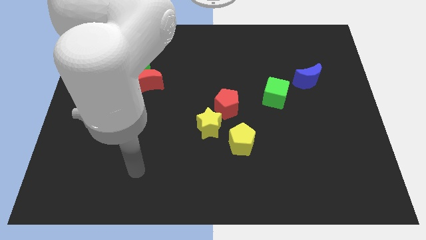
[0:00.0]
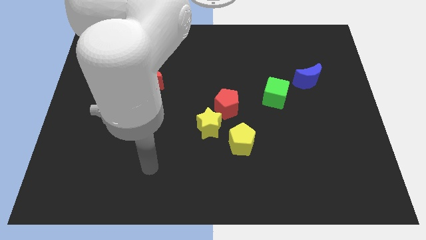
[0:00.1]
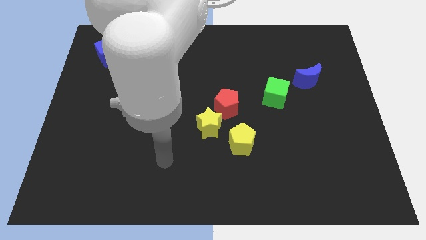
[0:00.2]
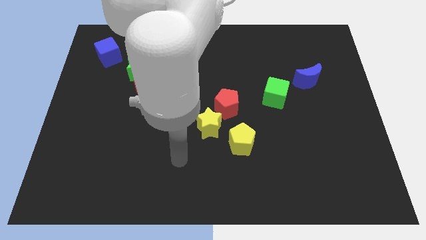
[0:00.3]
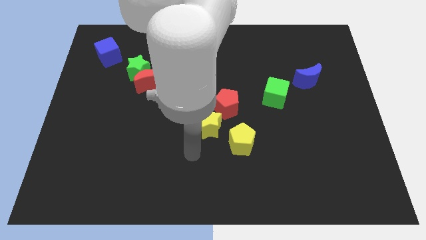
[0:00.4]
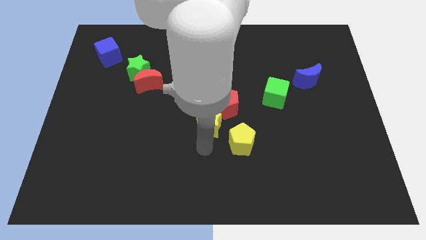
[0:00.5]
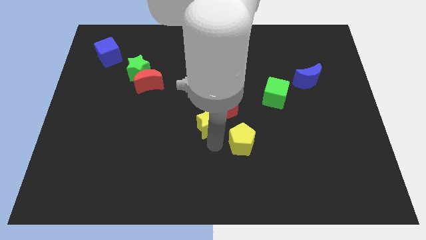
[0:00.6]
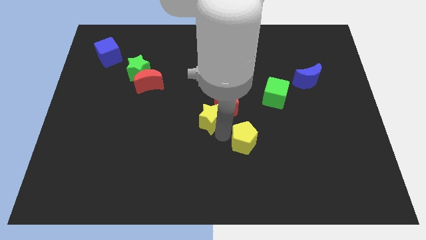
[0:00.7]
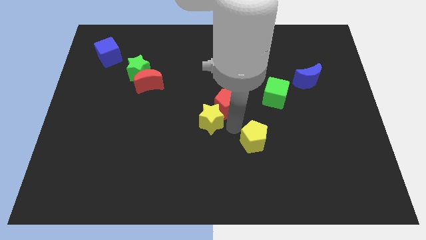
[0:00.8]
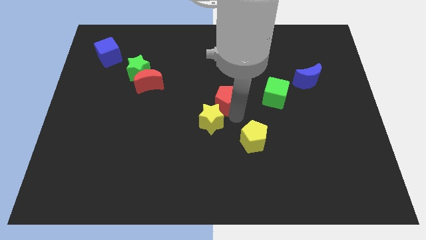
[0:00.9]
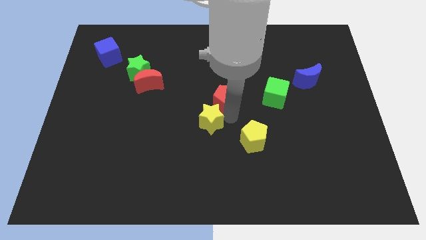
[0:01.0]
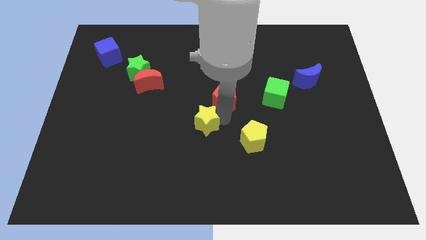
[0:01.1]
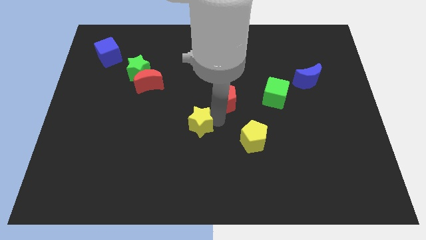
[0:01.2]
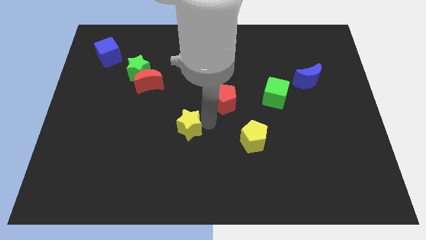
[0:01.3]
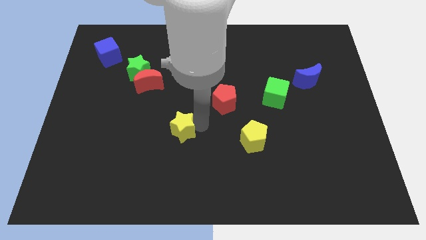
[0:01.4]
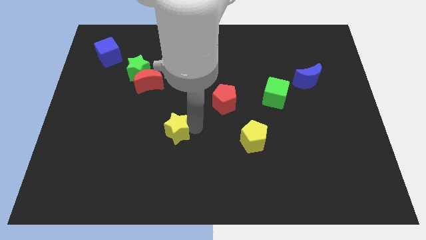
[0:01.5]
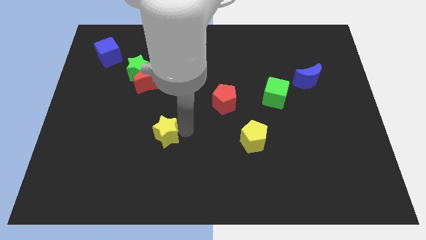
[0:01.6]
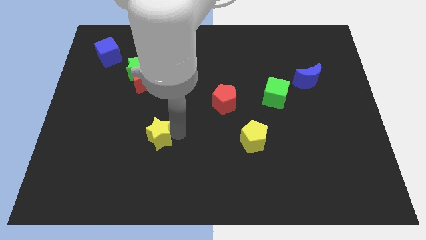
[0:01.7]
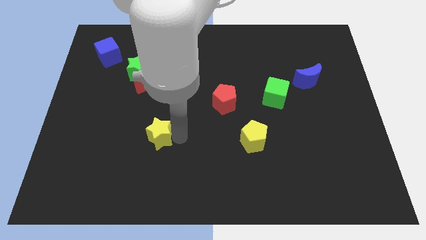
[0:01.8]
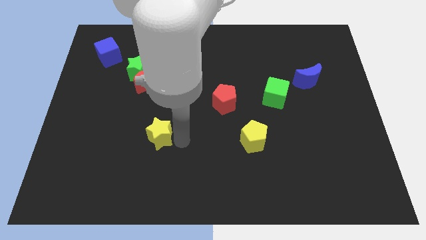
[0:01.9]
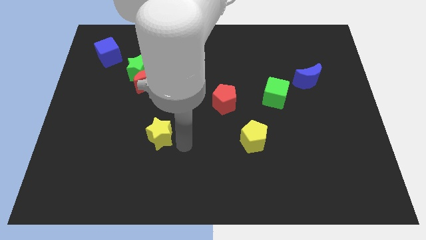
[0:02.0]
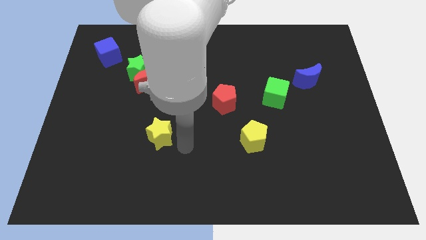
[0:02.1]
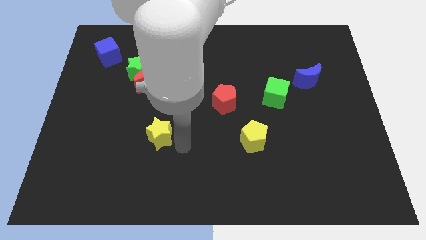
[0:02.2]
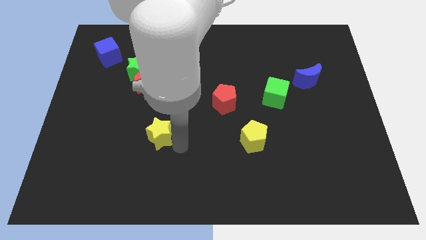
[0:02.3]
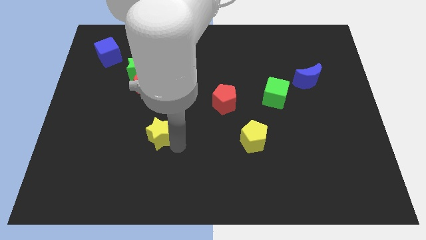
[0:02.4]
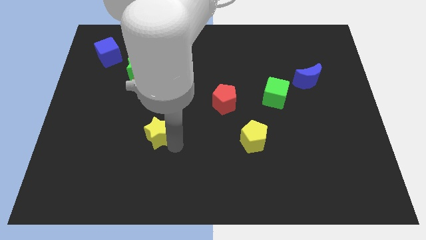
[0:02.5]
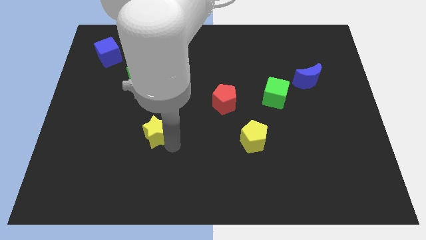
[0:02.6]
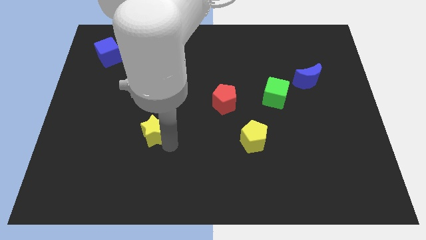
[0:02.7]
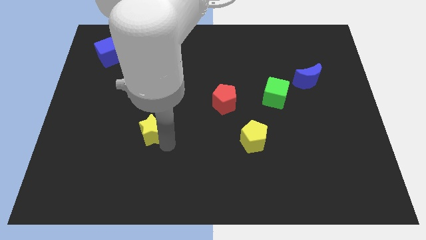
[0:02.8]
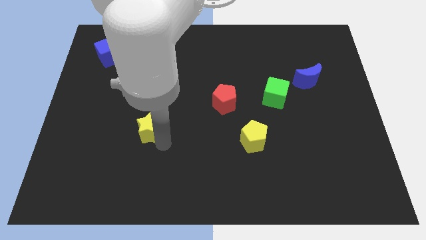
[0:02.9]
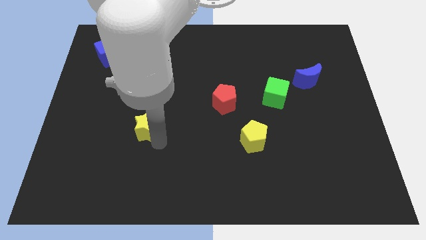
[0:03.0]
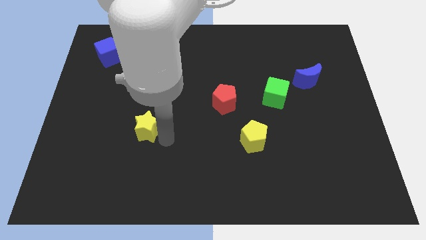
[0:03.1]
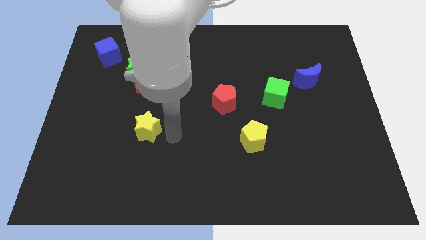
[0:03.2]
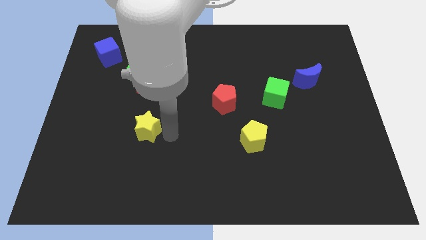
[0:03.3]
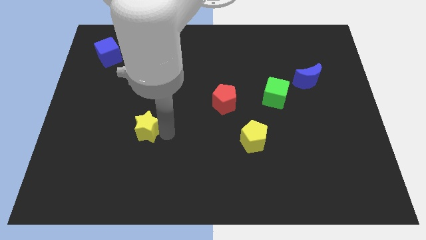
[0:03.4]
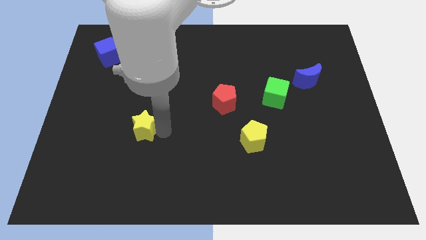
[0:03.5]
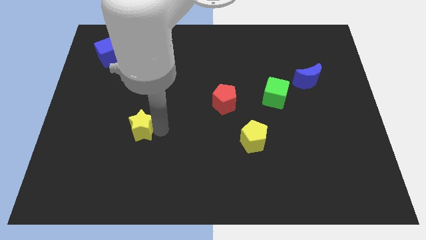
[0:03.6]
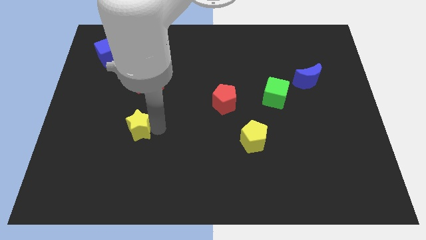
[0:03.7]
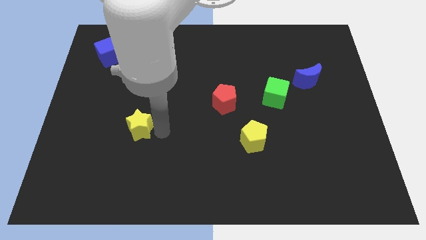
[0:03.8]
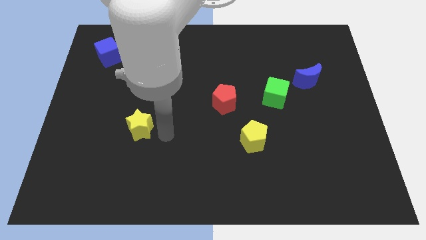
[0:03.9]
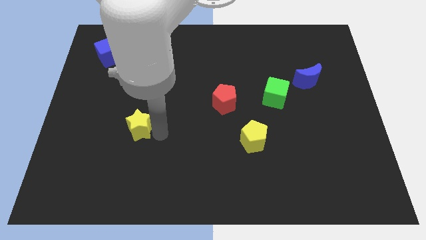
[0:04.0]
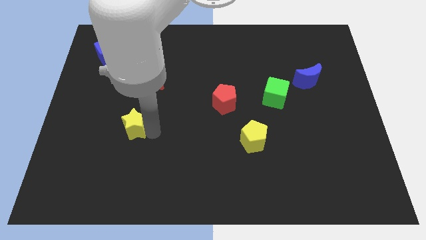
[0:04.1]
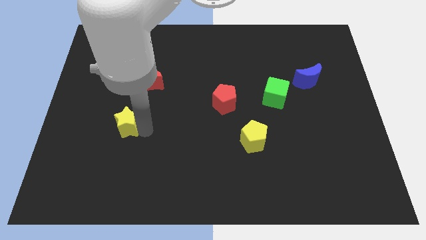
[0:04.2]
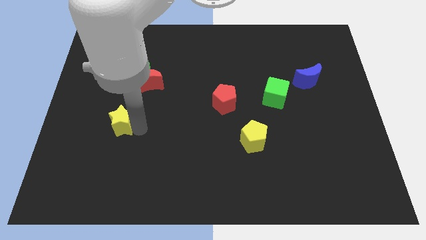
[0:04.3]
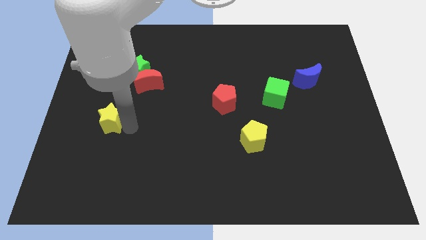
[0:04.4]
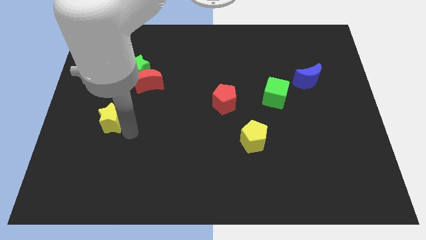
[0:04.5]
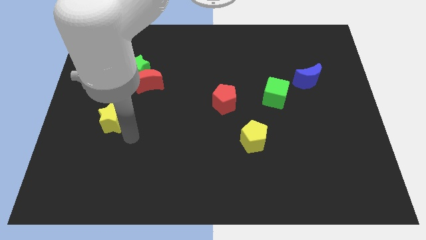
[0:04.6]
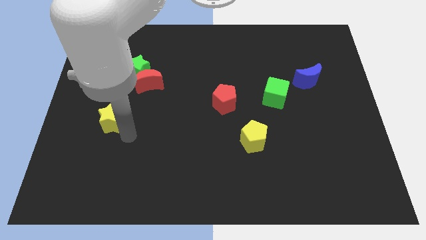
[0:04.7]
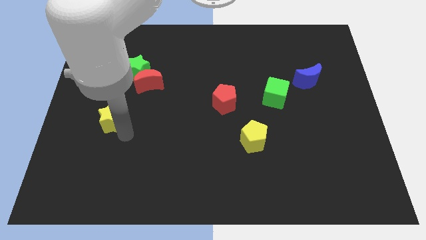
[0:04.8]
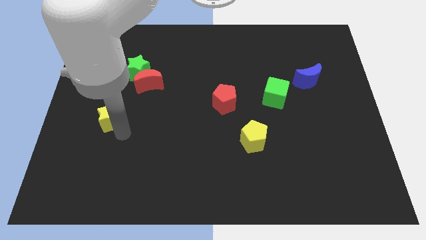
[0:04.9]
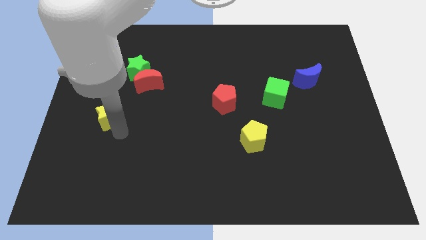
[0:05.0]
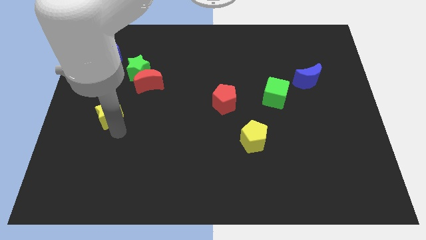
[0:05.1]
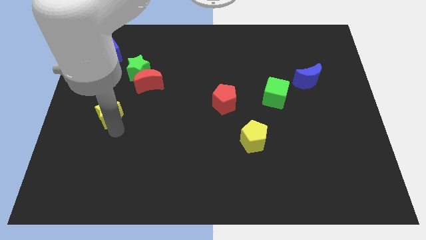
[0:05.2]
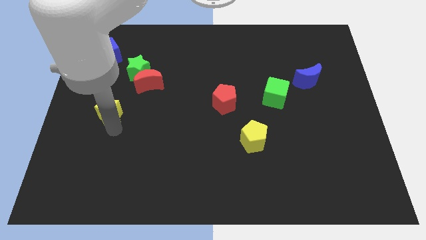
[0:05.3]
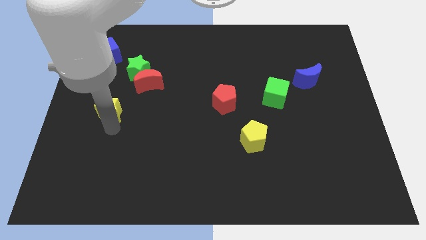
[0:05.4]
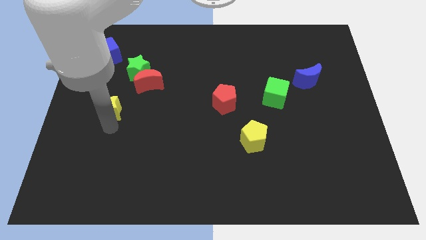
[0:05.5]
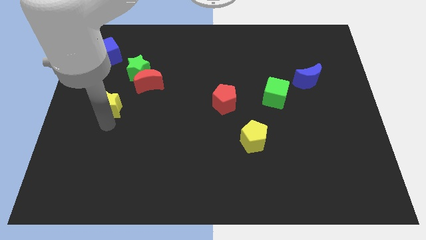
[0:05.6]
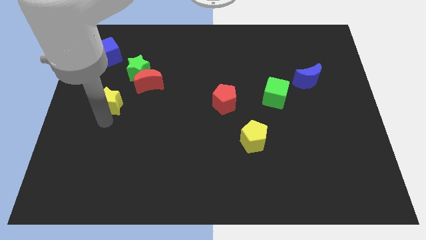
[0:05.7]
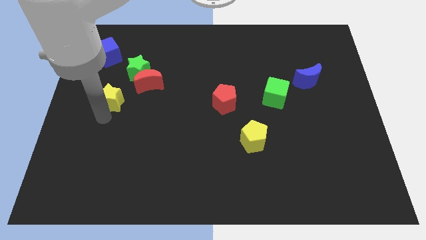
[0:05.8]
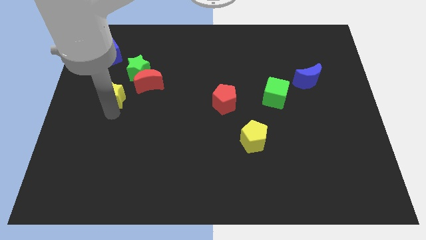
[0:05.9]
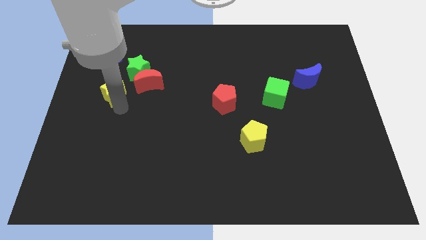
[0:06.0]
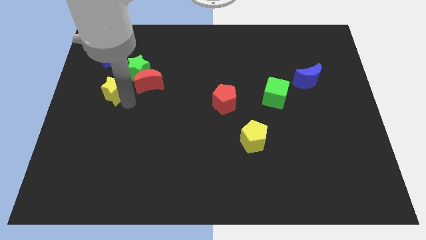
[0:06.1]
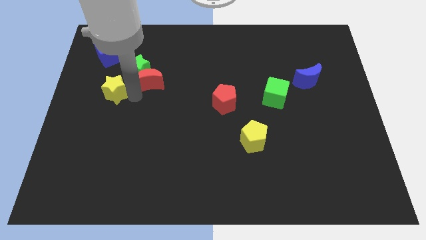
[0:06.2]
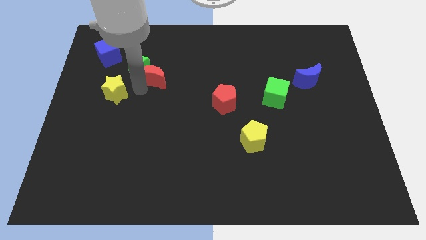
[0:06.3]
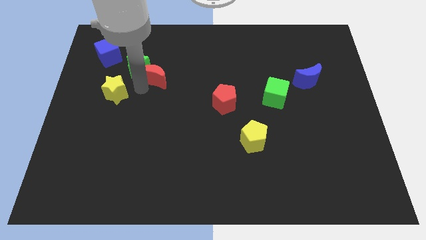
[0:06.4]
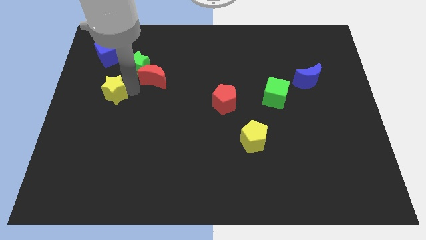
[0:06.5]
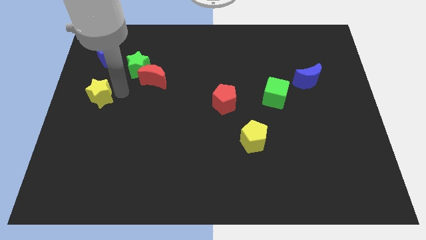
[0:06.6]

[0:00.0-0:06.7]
move the yellow star to the center left

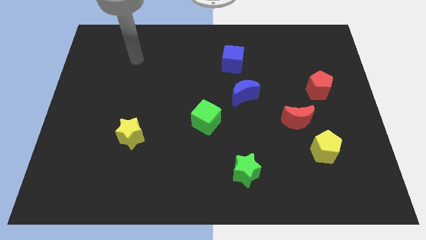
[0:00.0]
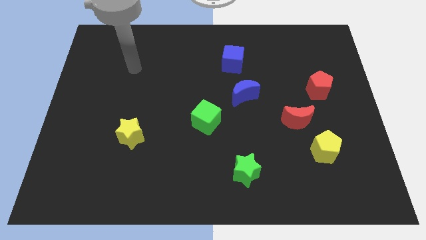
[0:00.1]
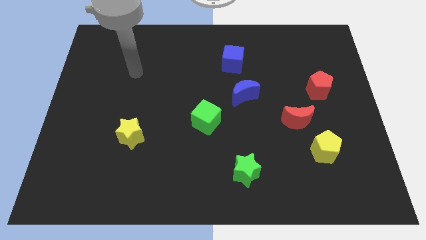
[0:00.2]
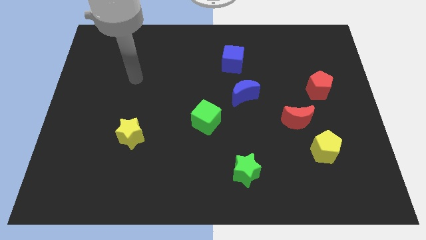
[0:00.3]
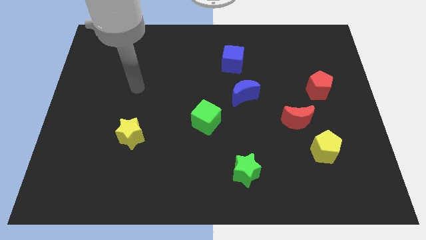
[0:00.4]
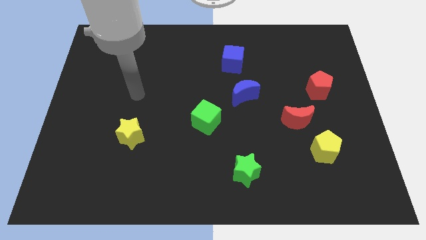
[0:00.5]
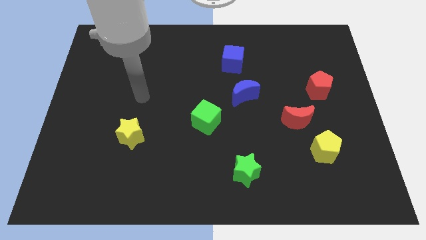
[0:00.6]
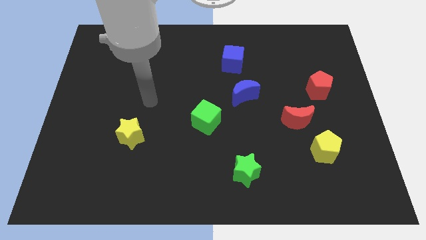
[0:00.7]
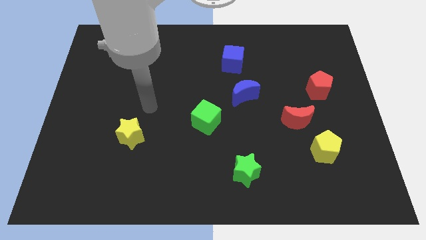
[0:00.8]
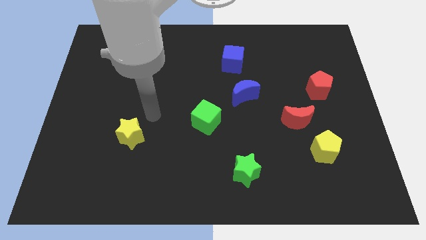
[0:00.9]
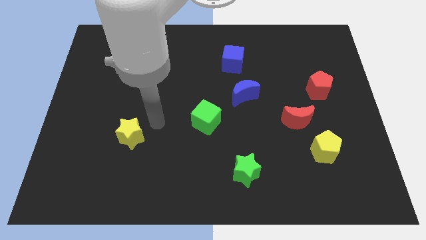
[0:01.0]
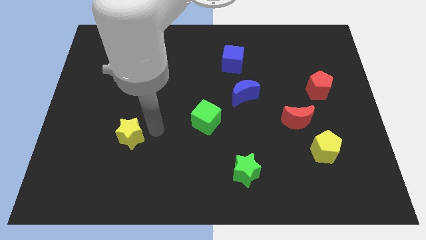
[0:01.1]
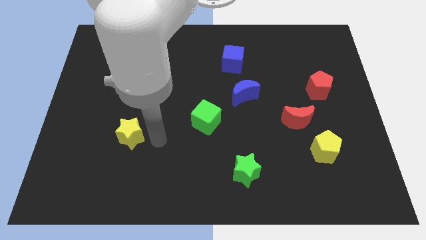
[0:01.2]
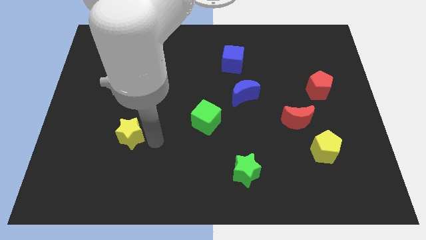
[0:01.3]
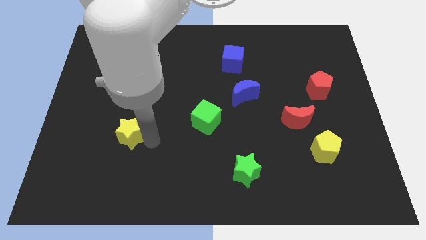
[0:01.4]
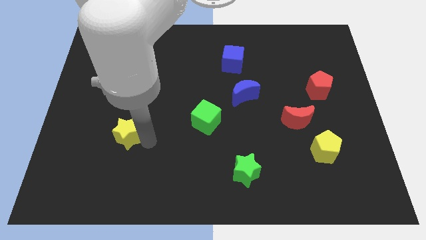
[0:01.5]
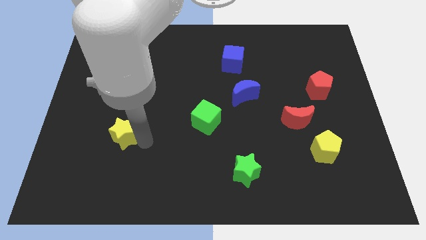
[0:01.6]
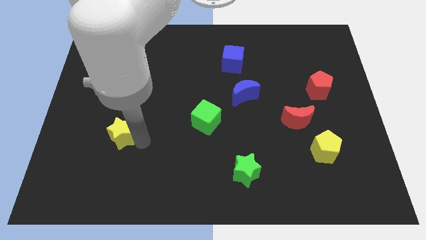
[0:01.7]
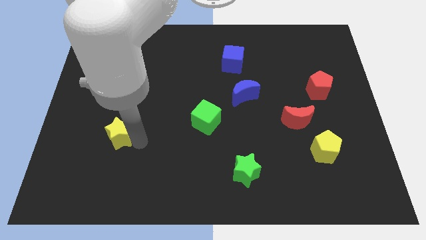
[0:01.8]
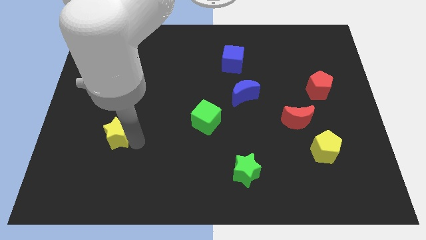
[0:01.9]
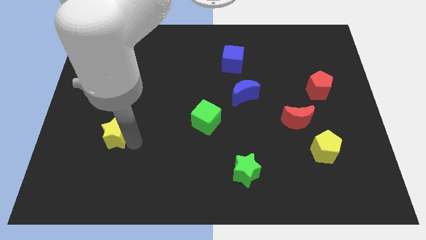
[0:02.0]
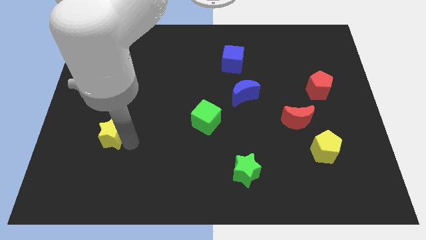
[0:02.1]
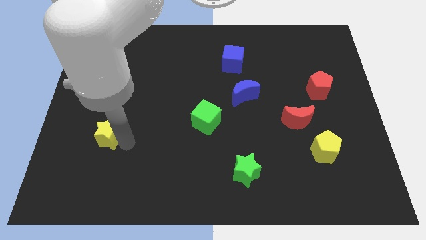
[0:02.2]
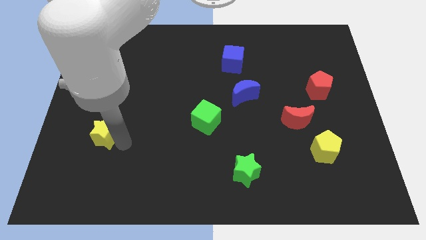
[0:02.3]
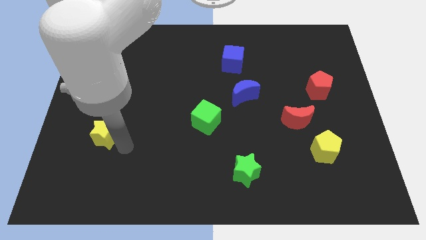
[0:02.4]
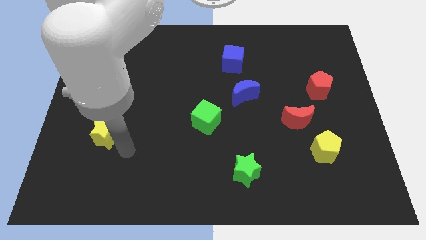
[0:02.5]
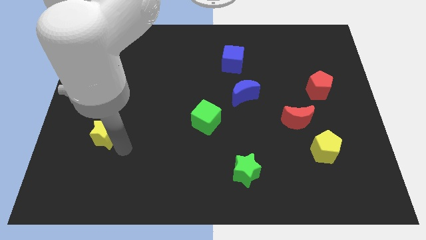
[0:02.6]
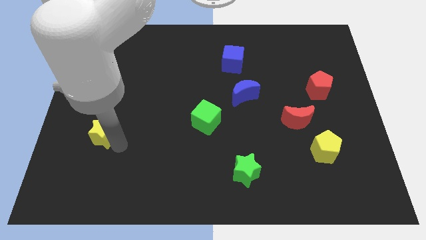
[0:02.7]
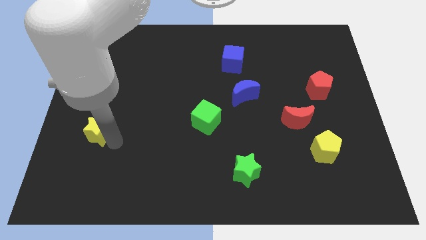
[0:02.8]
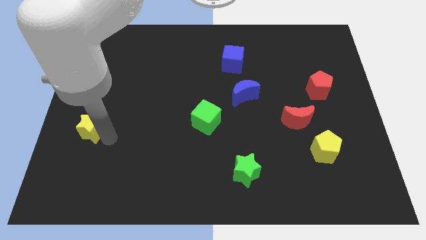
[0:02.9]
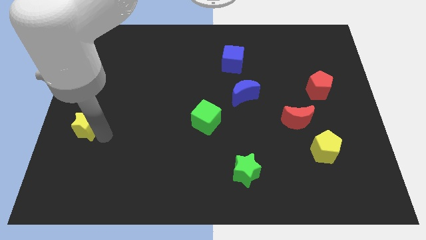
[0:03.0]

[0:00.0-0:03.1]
move the yellow star to the left side
